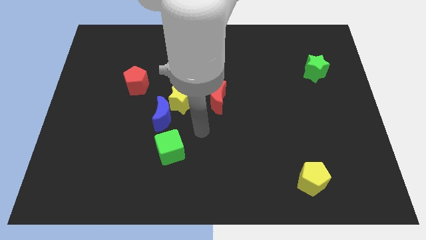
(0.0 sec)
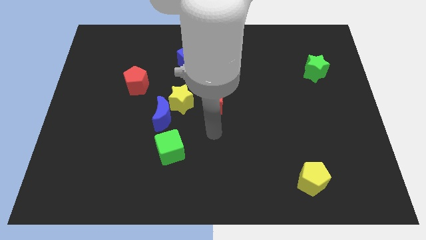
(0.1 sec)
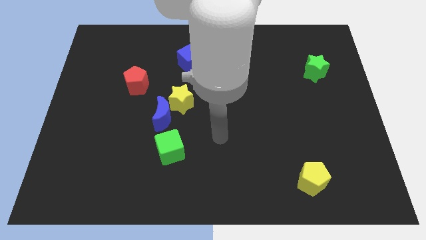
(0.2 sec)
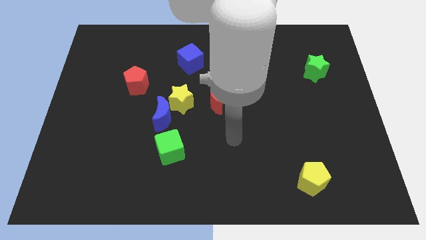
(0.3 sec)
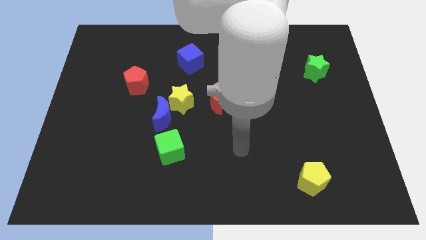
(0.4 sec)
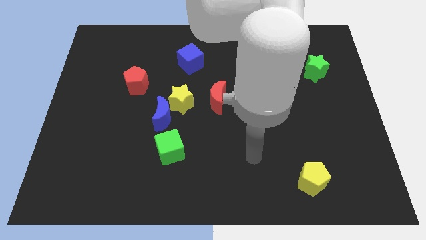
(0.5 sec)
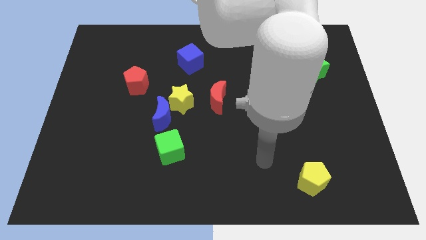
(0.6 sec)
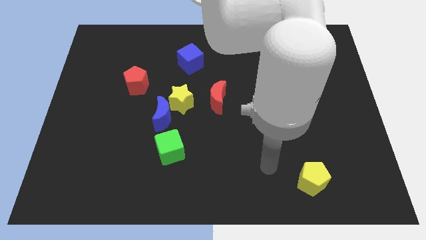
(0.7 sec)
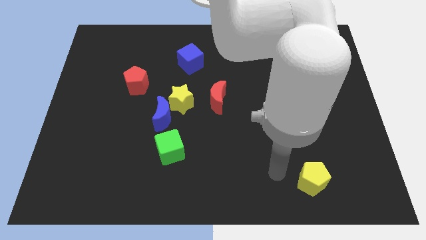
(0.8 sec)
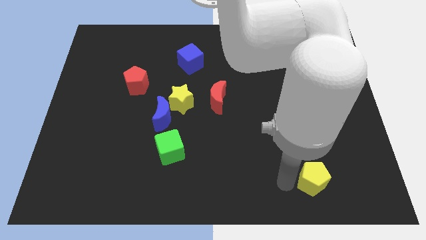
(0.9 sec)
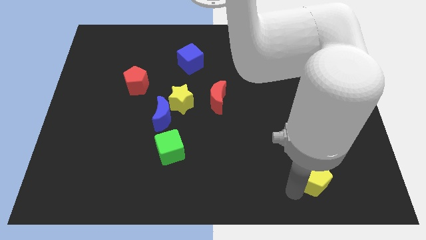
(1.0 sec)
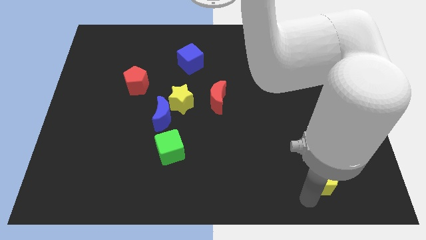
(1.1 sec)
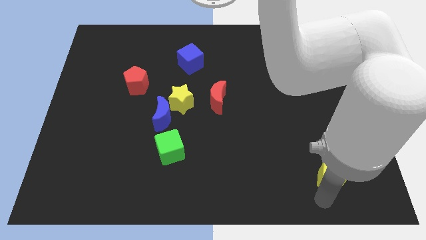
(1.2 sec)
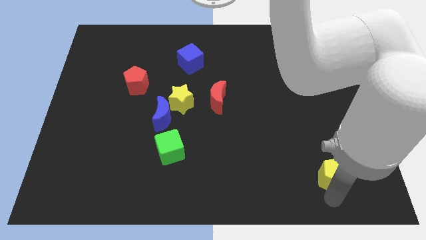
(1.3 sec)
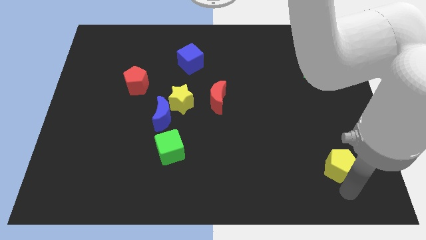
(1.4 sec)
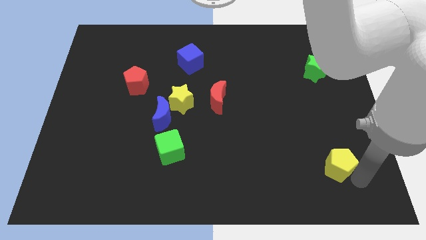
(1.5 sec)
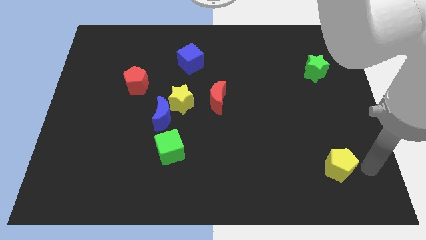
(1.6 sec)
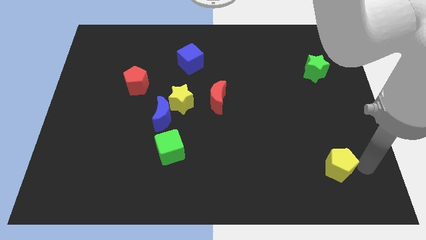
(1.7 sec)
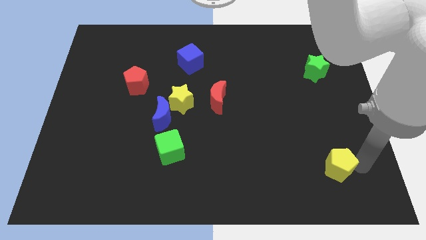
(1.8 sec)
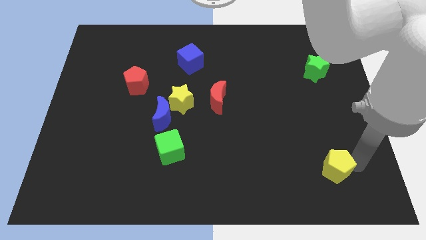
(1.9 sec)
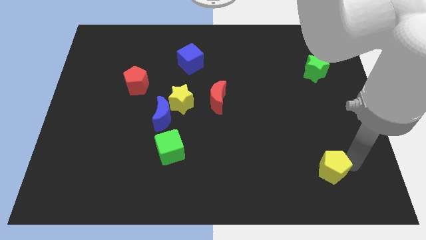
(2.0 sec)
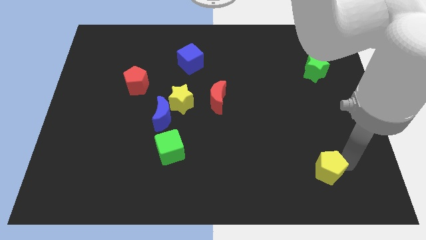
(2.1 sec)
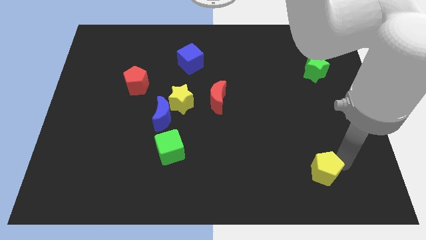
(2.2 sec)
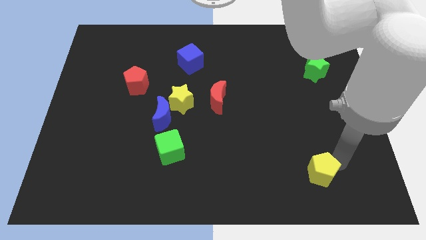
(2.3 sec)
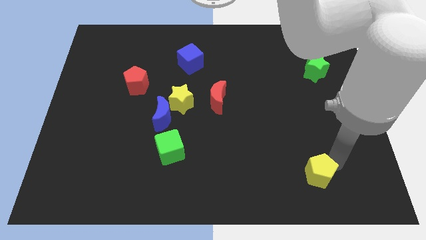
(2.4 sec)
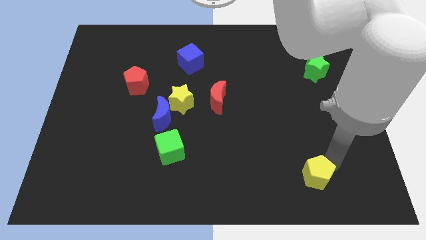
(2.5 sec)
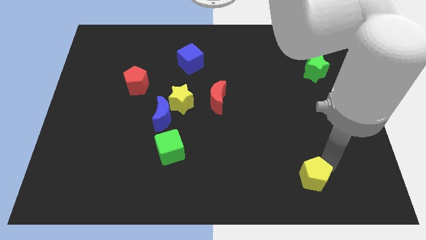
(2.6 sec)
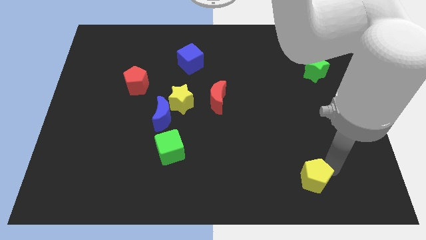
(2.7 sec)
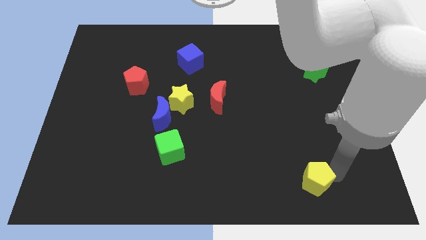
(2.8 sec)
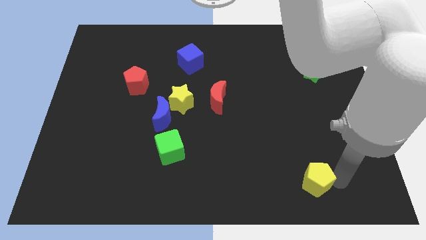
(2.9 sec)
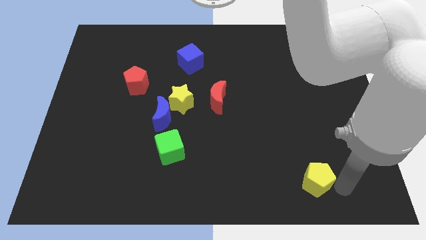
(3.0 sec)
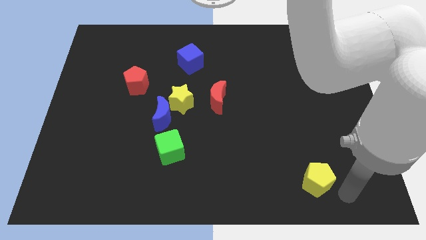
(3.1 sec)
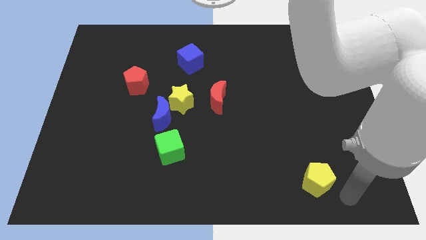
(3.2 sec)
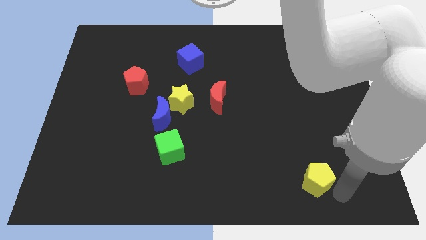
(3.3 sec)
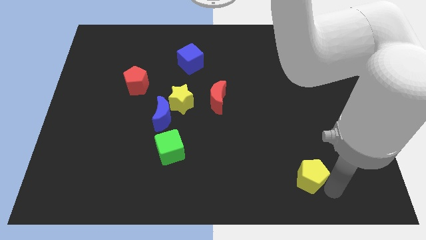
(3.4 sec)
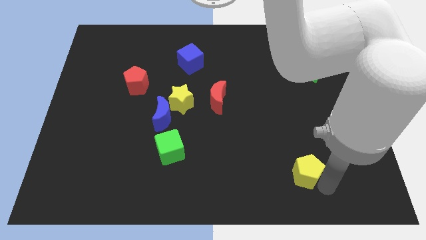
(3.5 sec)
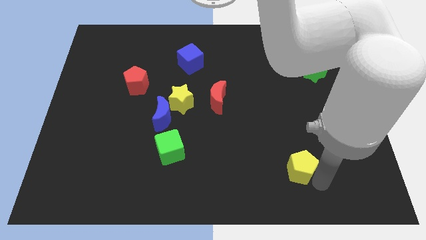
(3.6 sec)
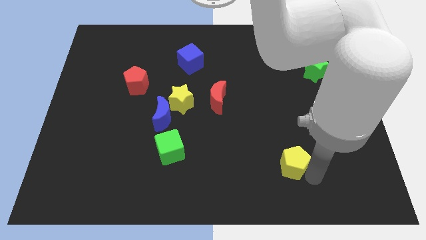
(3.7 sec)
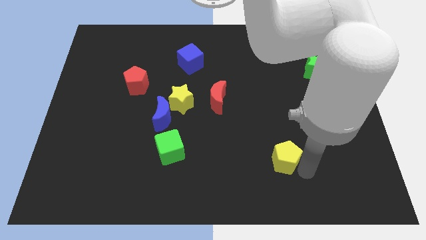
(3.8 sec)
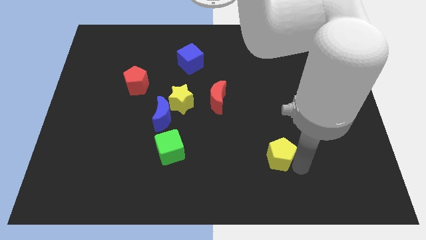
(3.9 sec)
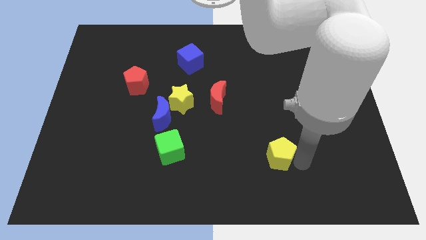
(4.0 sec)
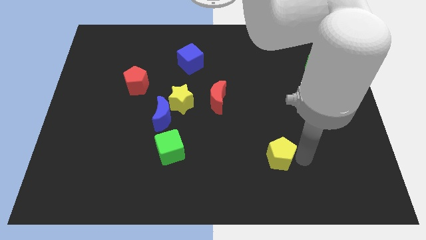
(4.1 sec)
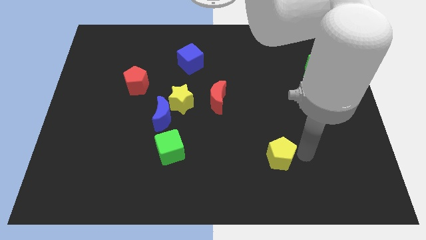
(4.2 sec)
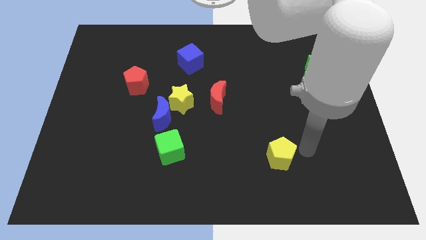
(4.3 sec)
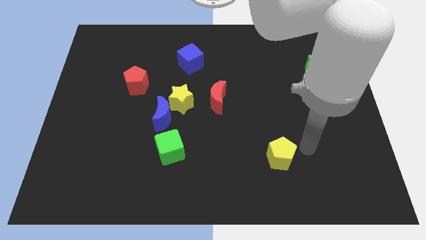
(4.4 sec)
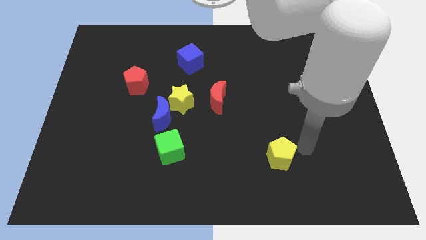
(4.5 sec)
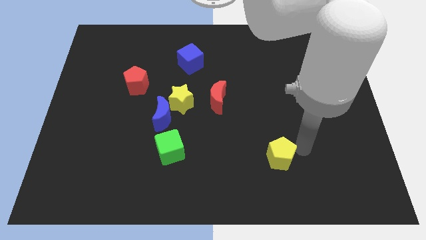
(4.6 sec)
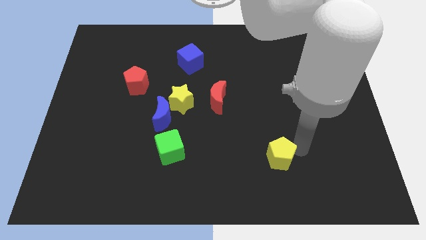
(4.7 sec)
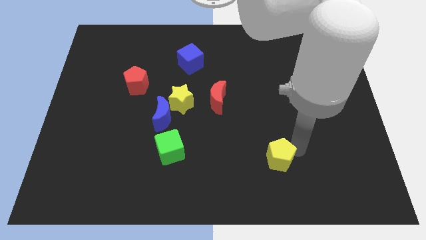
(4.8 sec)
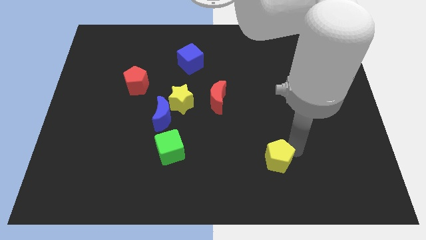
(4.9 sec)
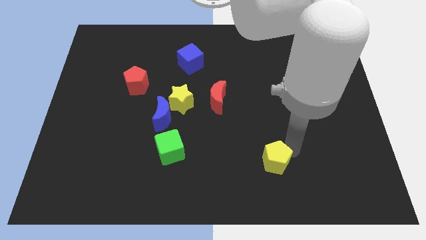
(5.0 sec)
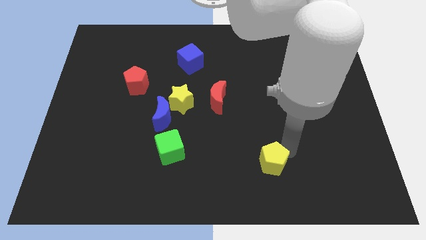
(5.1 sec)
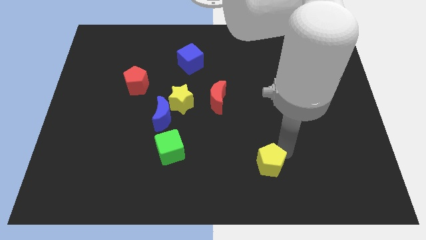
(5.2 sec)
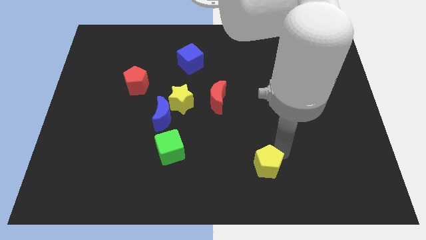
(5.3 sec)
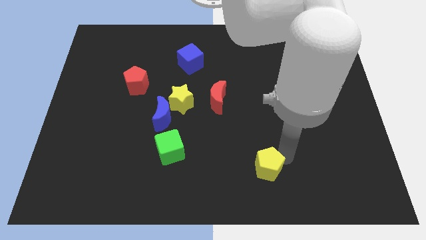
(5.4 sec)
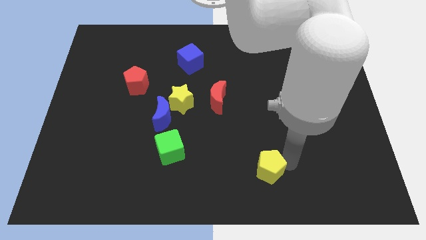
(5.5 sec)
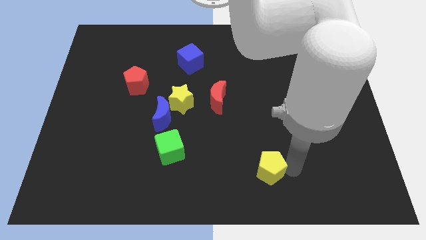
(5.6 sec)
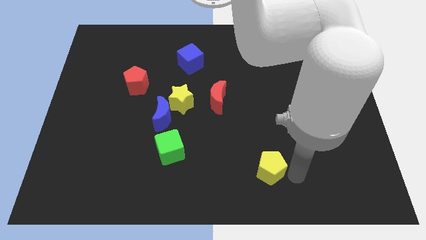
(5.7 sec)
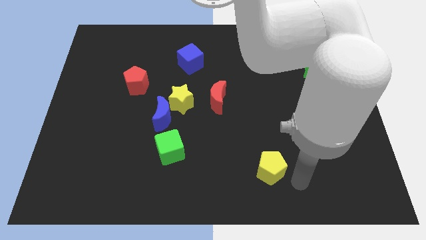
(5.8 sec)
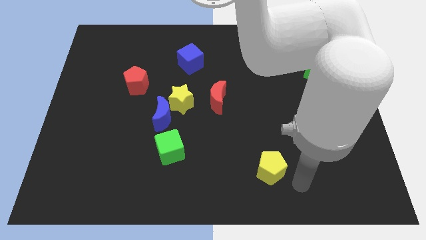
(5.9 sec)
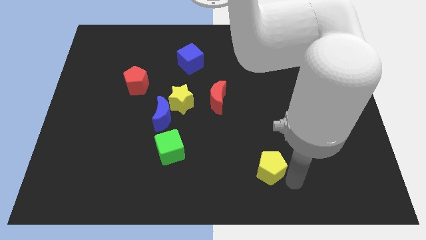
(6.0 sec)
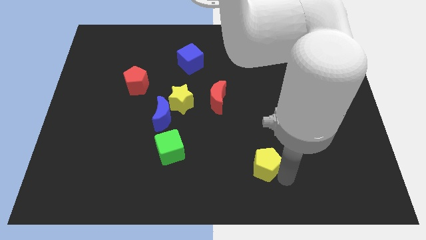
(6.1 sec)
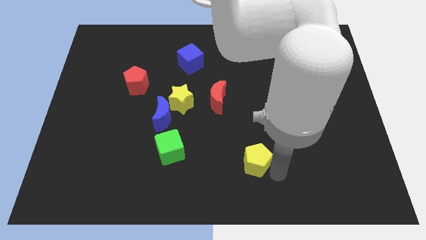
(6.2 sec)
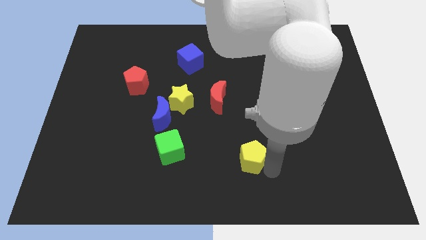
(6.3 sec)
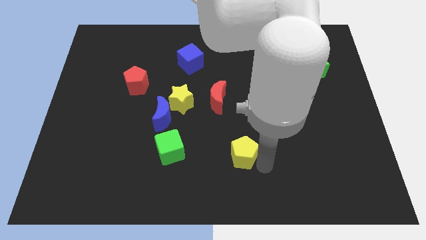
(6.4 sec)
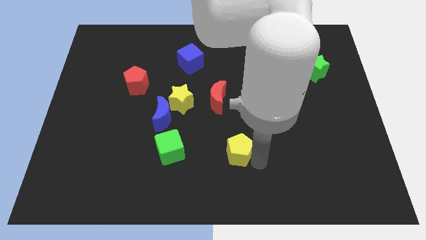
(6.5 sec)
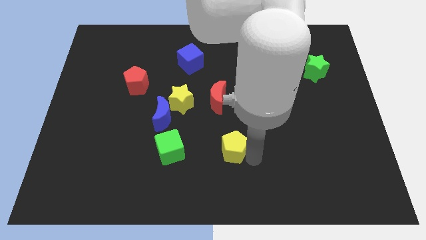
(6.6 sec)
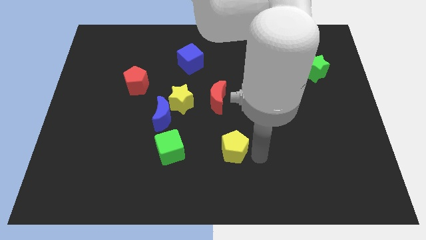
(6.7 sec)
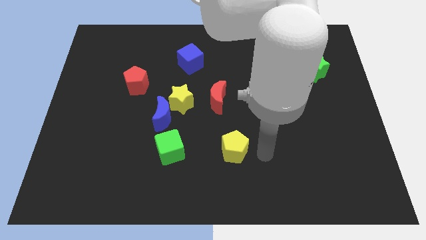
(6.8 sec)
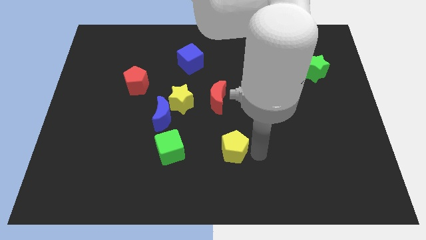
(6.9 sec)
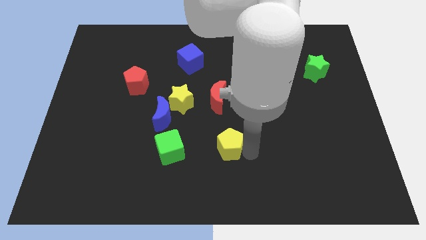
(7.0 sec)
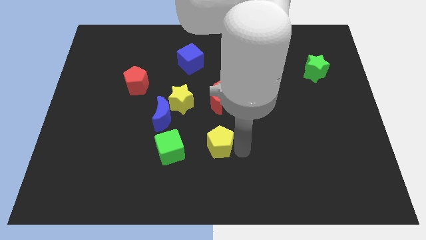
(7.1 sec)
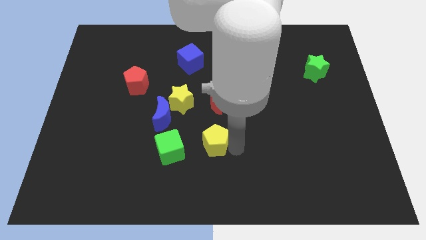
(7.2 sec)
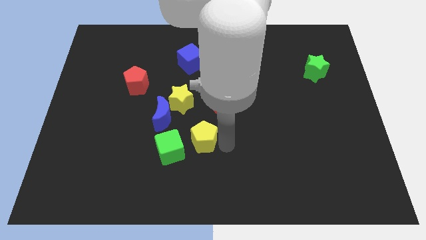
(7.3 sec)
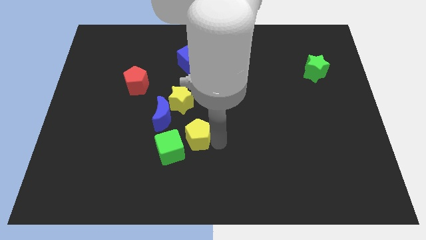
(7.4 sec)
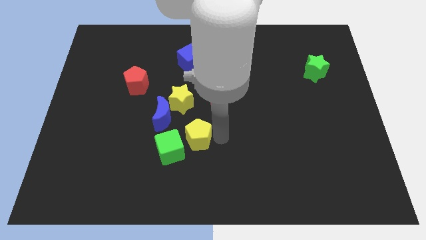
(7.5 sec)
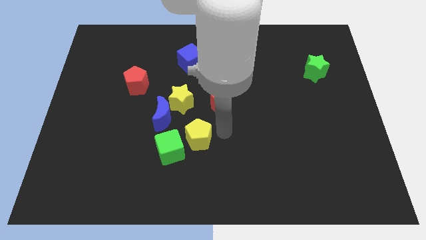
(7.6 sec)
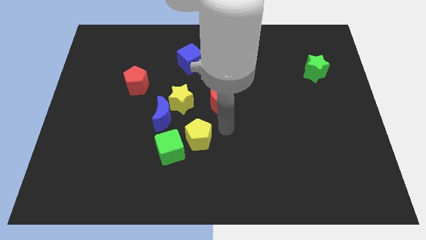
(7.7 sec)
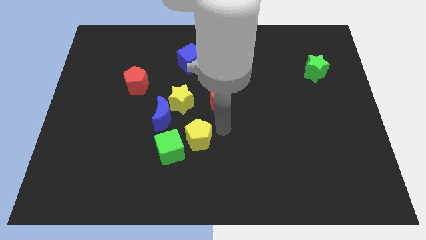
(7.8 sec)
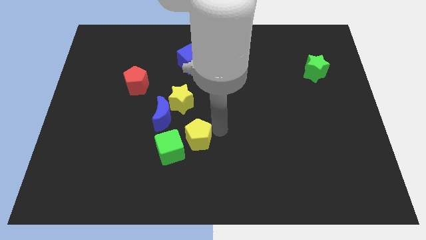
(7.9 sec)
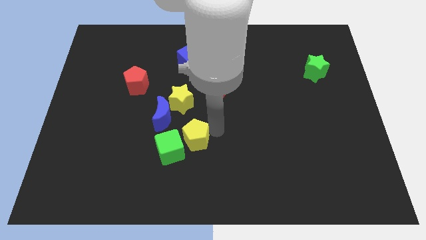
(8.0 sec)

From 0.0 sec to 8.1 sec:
put the yellow pentagon close to the green cube
